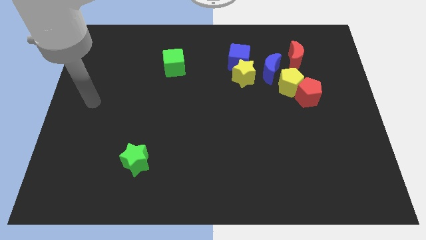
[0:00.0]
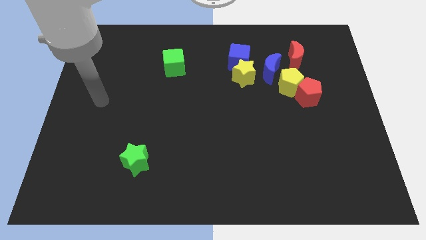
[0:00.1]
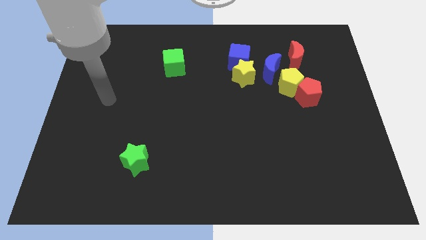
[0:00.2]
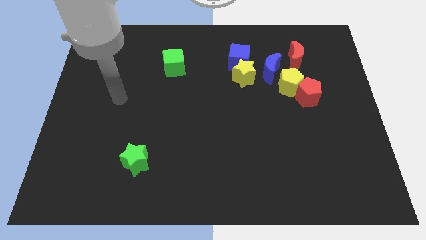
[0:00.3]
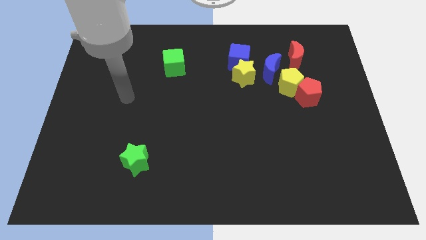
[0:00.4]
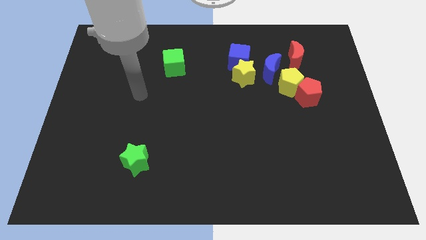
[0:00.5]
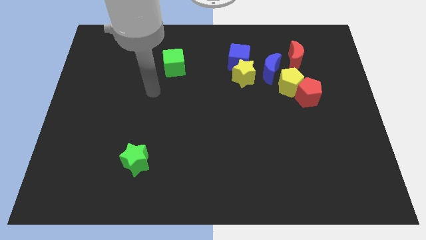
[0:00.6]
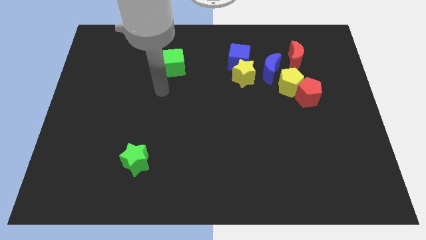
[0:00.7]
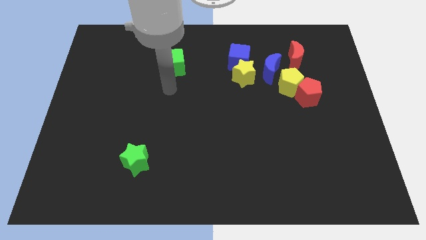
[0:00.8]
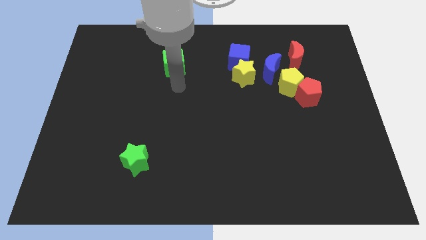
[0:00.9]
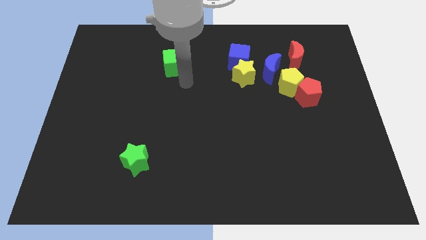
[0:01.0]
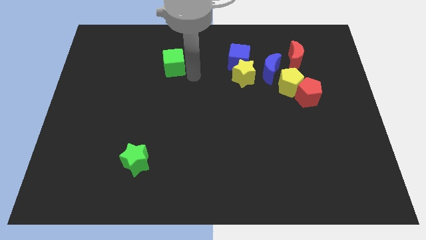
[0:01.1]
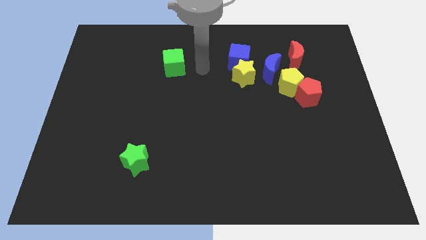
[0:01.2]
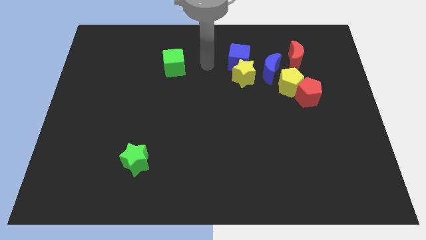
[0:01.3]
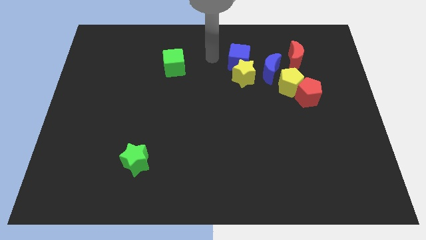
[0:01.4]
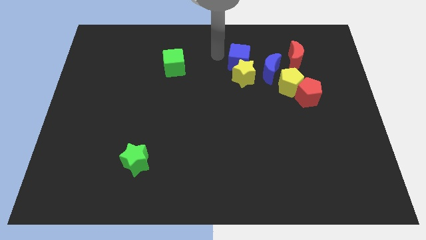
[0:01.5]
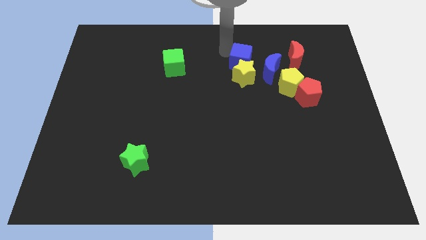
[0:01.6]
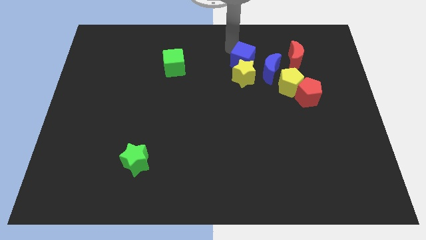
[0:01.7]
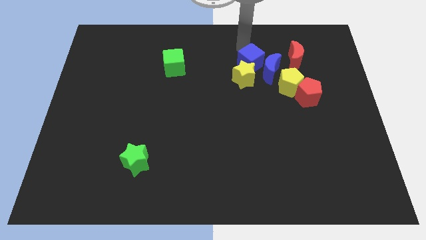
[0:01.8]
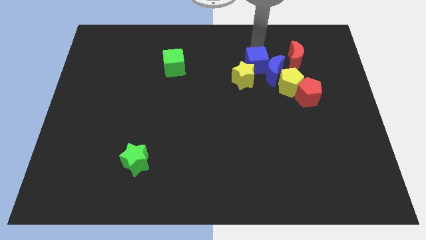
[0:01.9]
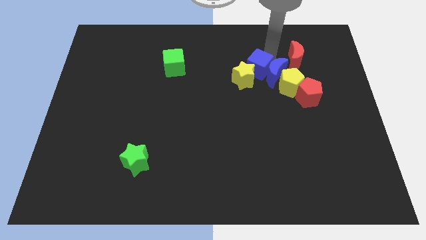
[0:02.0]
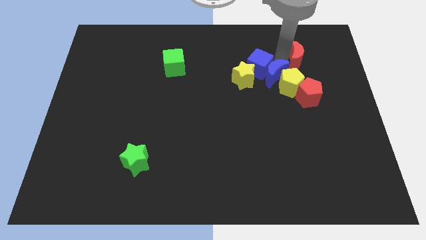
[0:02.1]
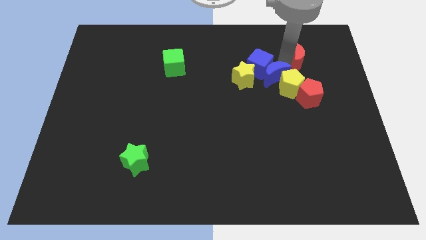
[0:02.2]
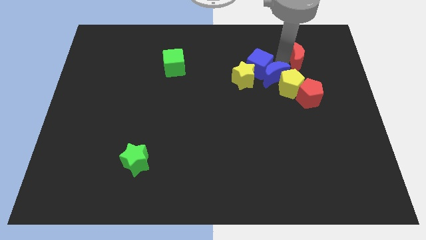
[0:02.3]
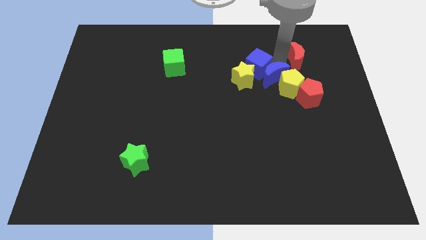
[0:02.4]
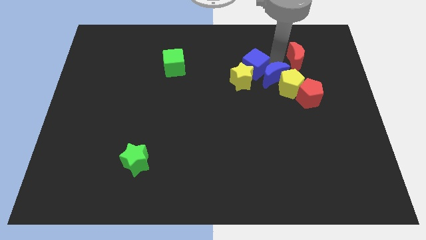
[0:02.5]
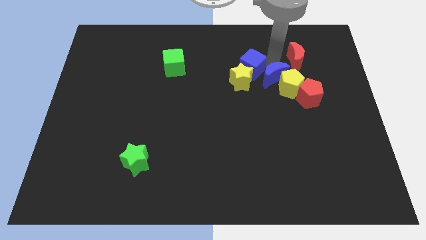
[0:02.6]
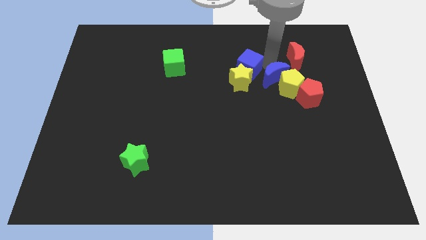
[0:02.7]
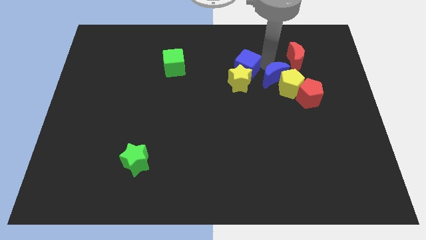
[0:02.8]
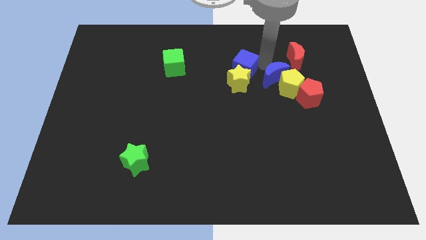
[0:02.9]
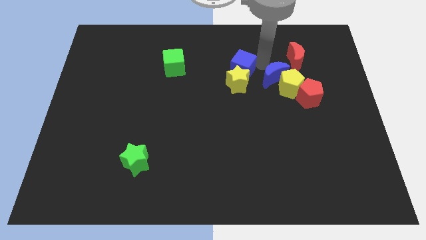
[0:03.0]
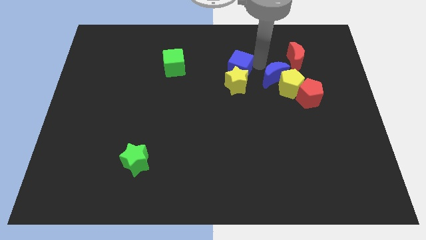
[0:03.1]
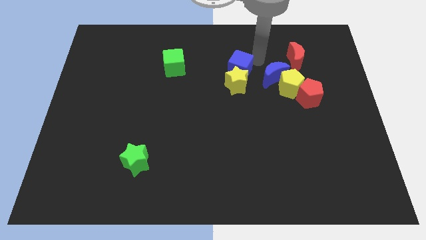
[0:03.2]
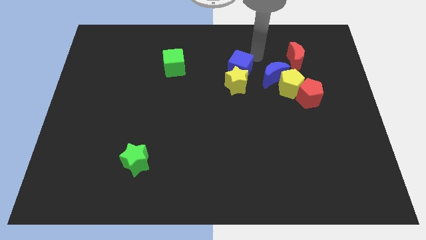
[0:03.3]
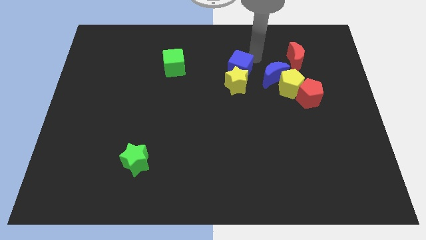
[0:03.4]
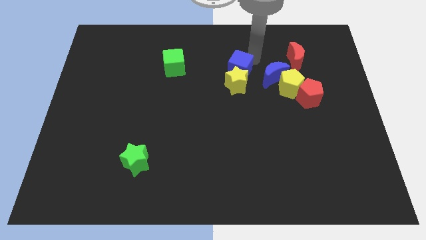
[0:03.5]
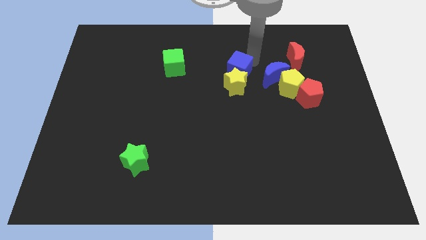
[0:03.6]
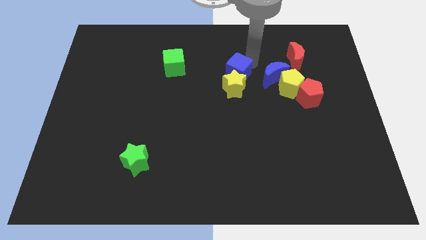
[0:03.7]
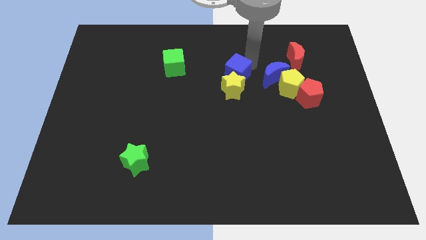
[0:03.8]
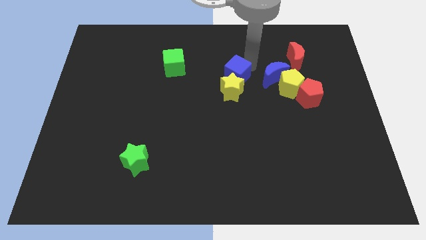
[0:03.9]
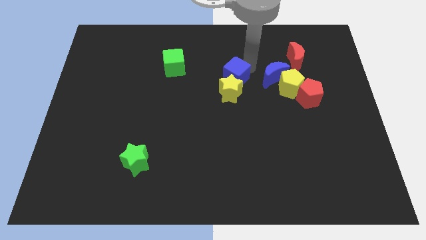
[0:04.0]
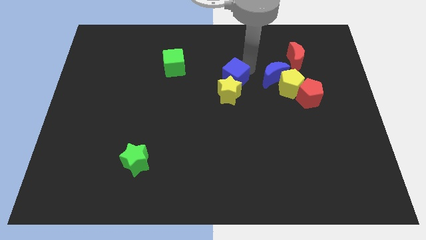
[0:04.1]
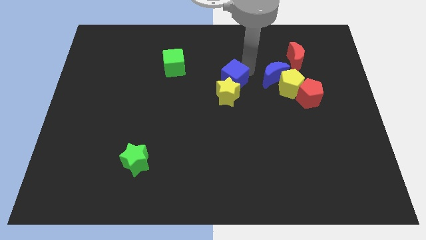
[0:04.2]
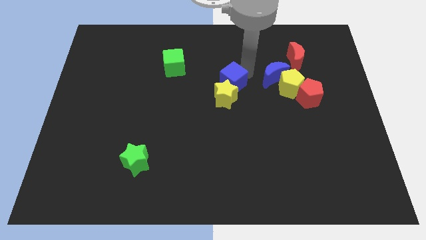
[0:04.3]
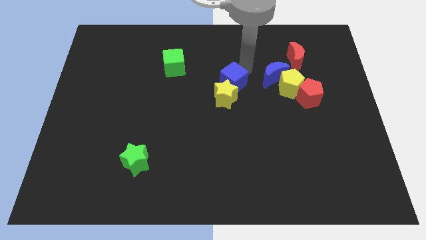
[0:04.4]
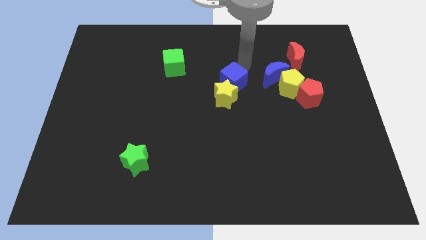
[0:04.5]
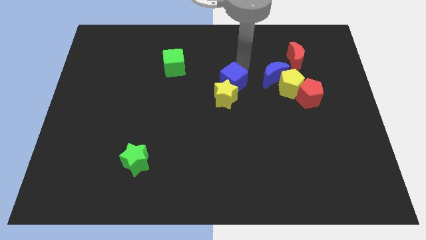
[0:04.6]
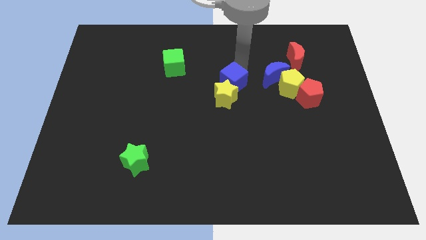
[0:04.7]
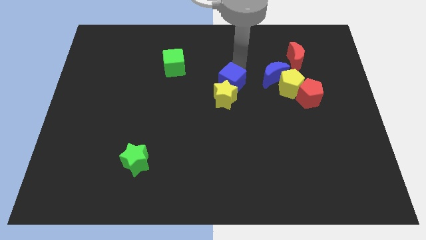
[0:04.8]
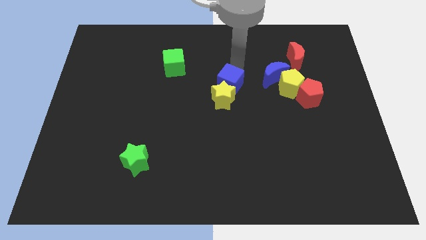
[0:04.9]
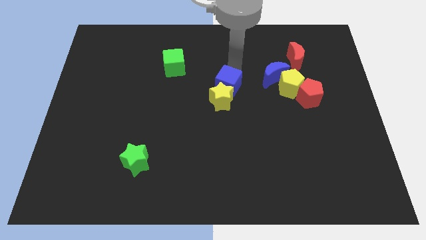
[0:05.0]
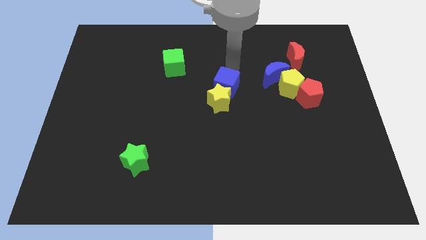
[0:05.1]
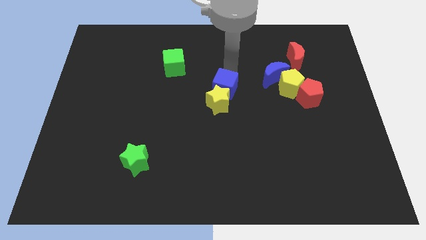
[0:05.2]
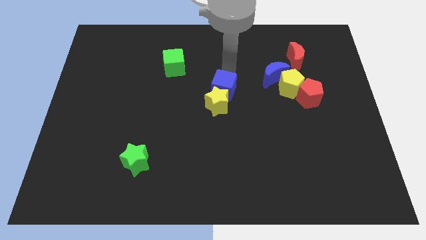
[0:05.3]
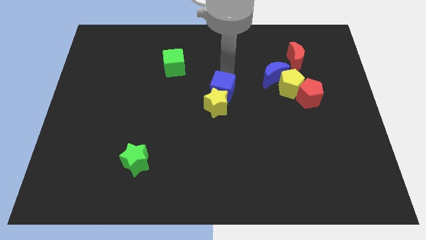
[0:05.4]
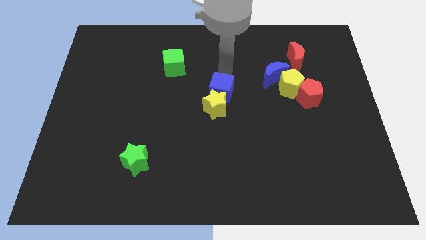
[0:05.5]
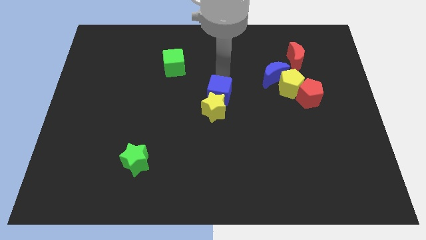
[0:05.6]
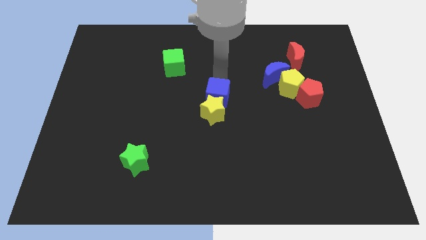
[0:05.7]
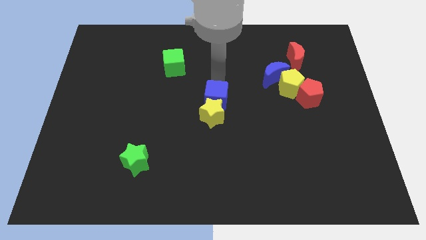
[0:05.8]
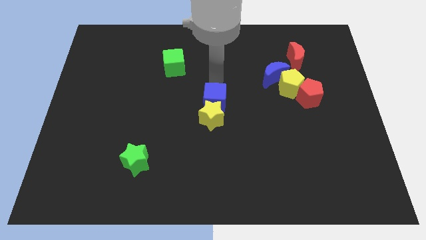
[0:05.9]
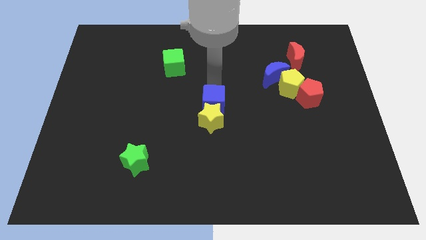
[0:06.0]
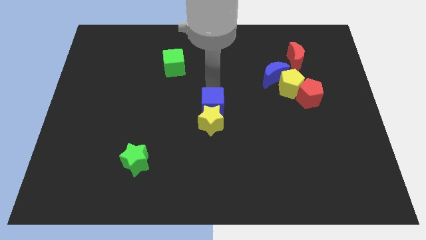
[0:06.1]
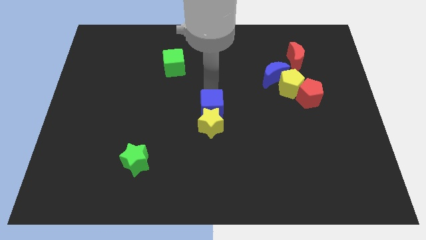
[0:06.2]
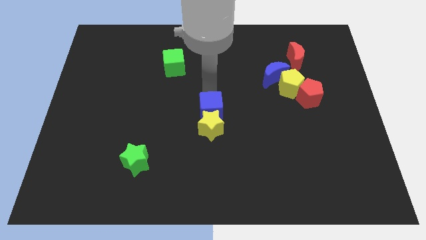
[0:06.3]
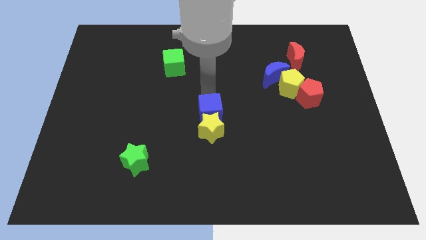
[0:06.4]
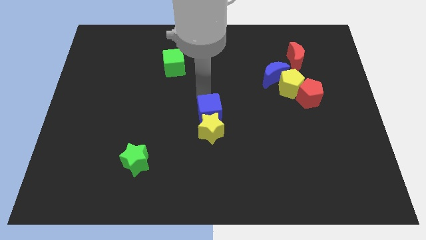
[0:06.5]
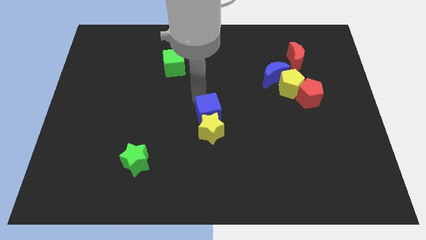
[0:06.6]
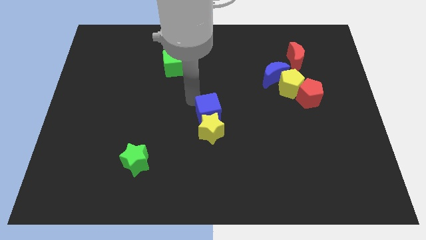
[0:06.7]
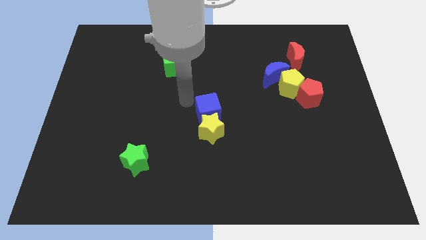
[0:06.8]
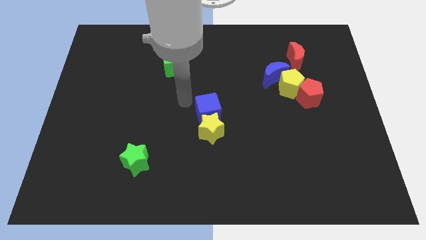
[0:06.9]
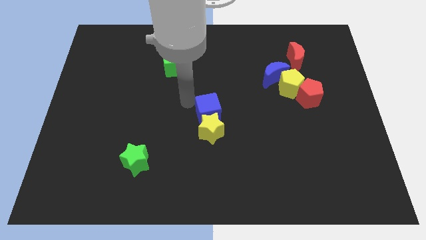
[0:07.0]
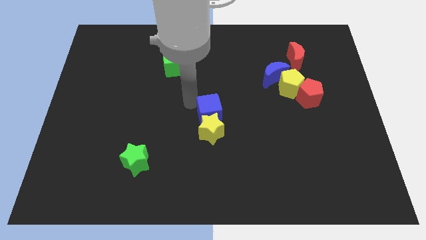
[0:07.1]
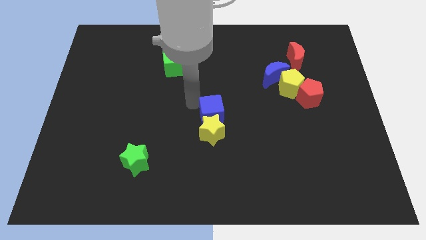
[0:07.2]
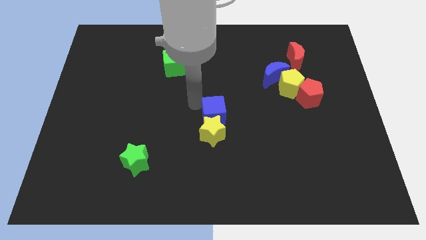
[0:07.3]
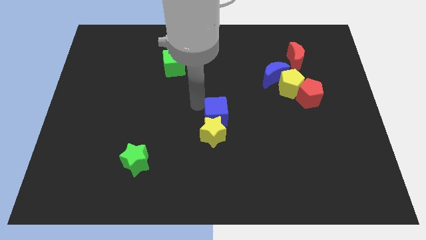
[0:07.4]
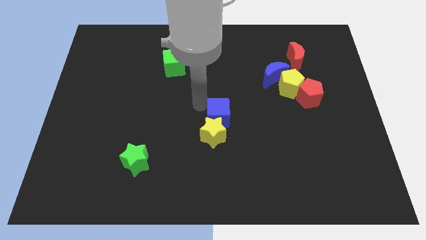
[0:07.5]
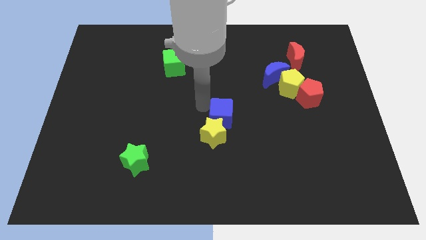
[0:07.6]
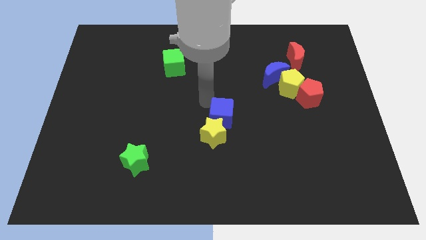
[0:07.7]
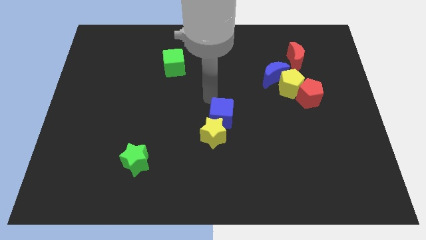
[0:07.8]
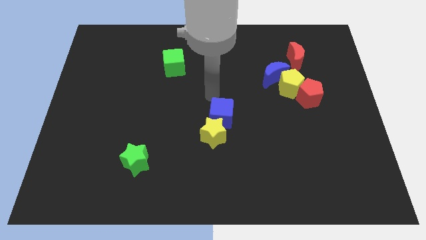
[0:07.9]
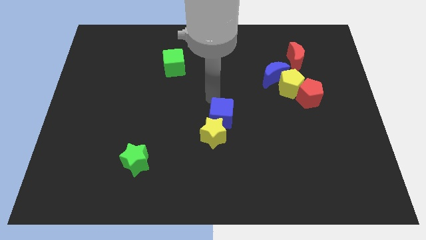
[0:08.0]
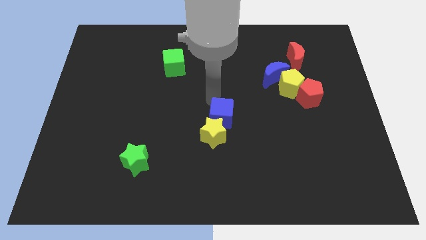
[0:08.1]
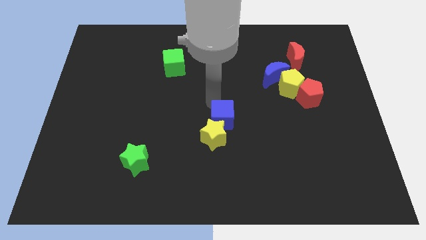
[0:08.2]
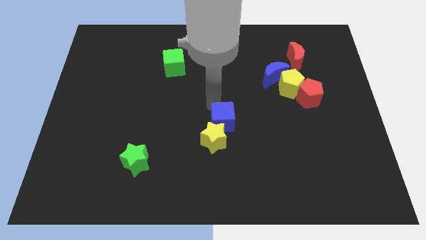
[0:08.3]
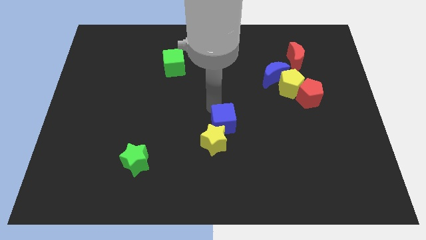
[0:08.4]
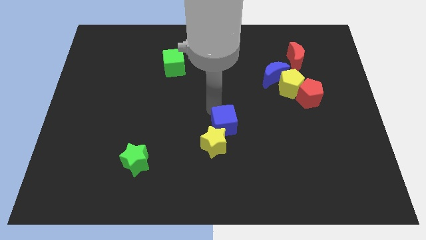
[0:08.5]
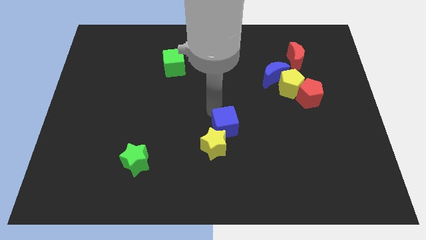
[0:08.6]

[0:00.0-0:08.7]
slide the blue cube down
